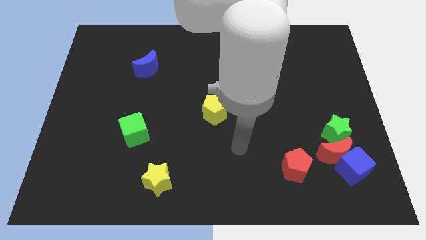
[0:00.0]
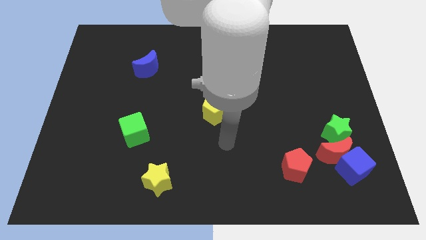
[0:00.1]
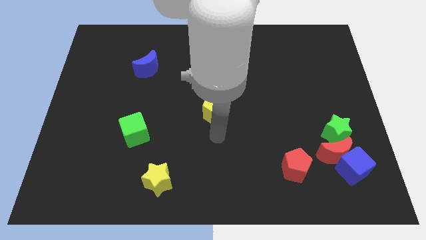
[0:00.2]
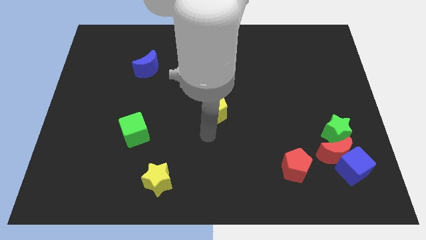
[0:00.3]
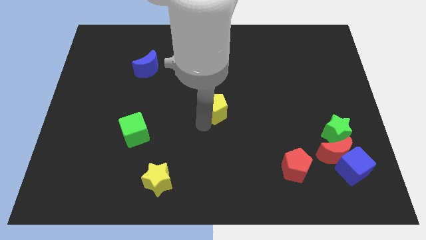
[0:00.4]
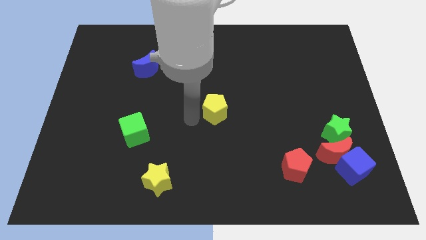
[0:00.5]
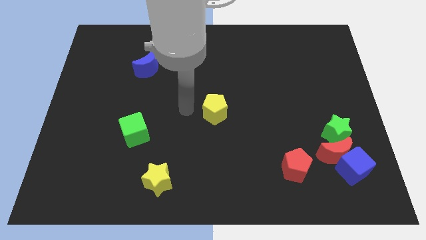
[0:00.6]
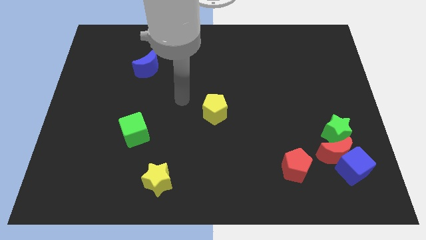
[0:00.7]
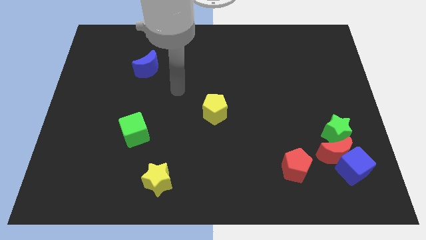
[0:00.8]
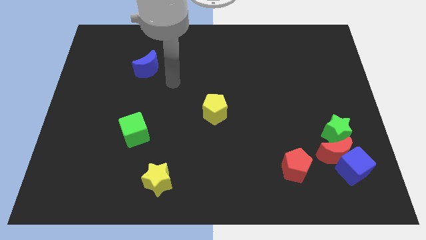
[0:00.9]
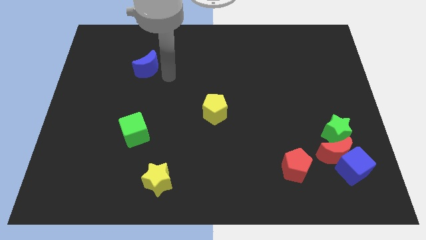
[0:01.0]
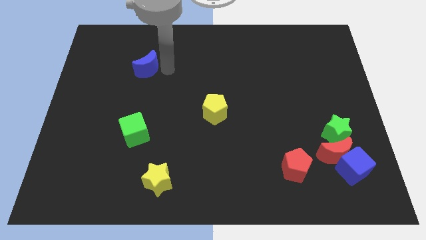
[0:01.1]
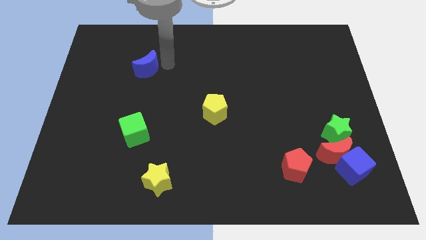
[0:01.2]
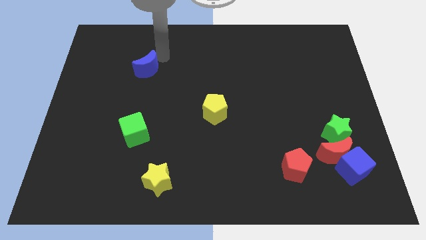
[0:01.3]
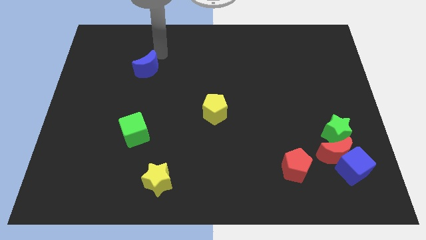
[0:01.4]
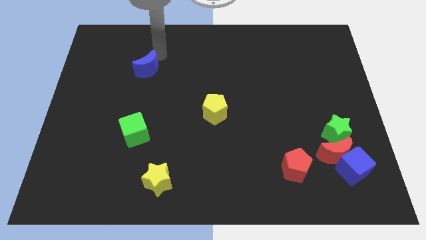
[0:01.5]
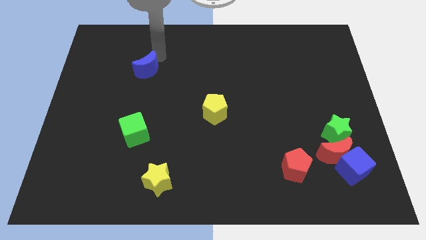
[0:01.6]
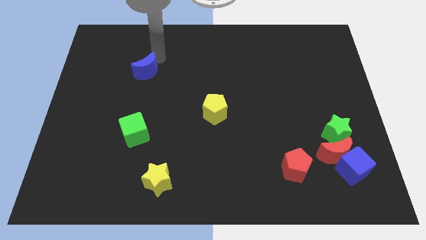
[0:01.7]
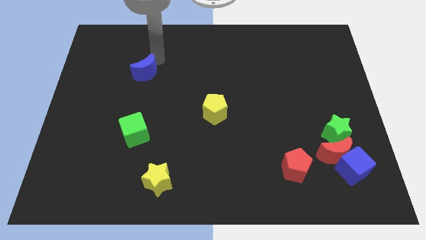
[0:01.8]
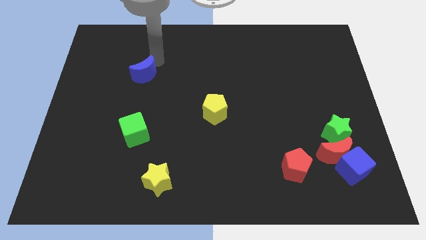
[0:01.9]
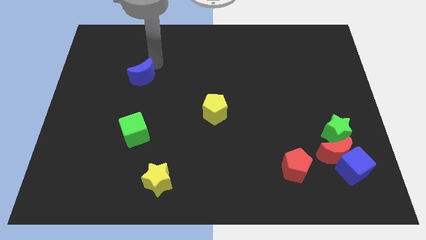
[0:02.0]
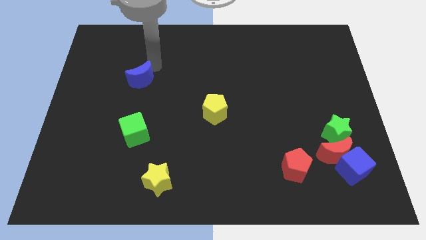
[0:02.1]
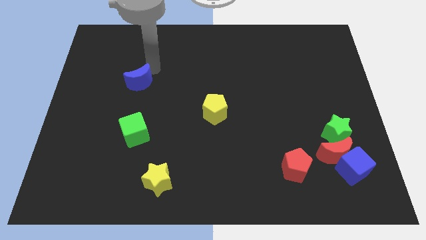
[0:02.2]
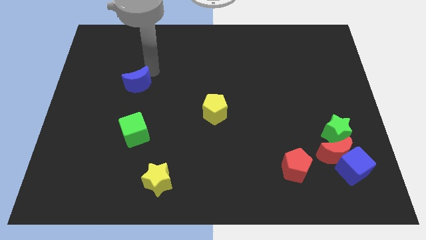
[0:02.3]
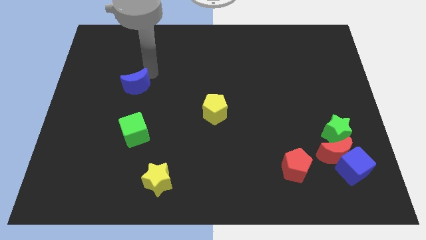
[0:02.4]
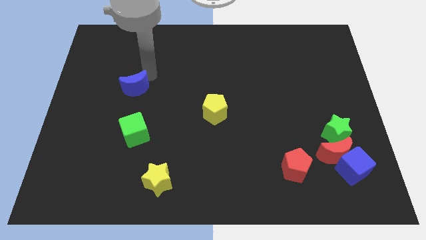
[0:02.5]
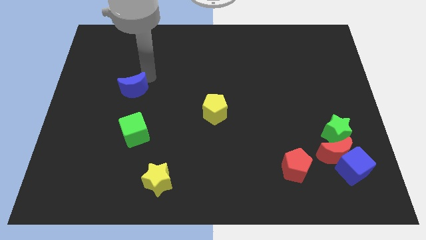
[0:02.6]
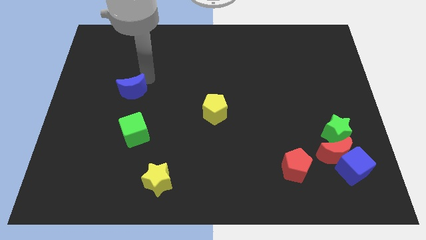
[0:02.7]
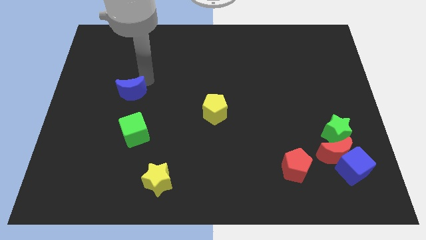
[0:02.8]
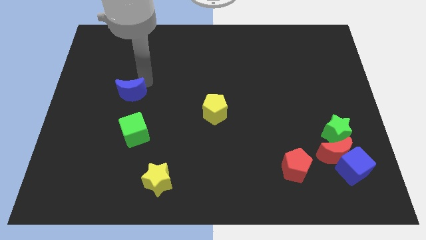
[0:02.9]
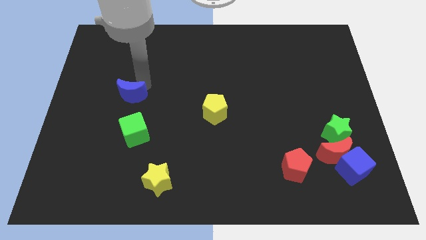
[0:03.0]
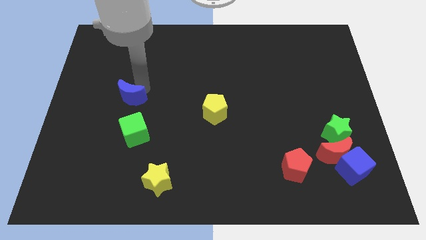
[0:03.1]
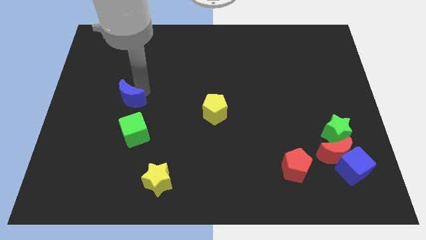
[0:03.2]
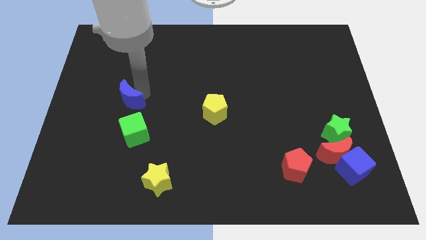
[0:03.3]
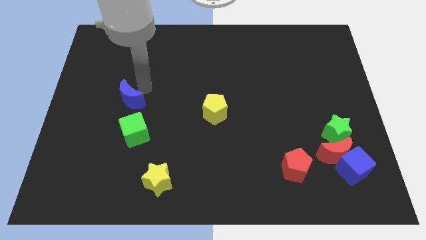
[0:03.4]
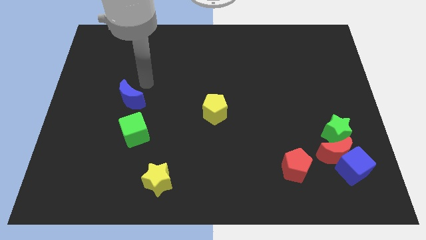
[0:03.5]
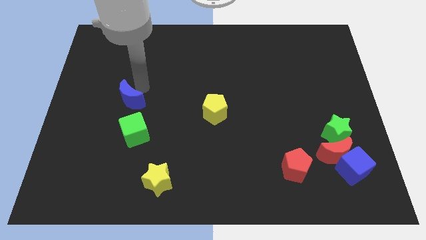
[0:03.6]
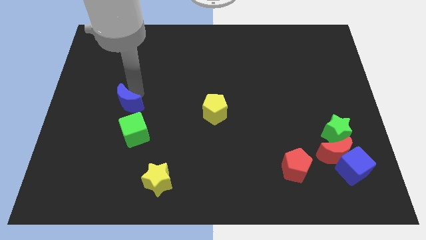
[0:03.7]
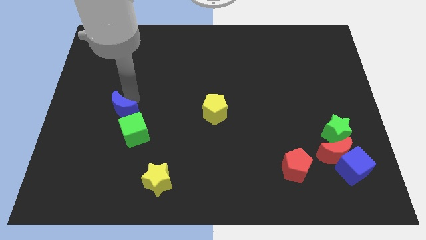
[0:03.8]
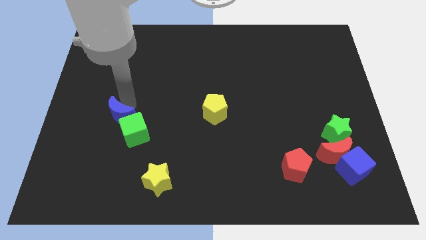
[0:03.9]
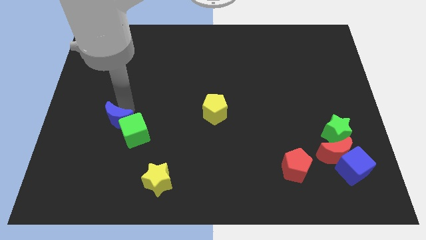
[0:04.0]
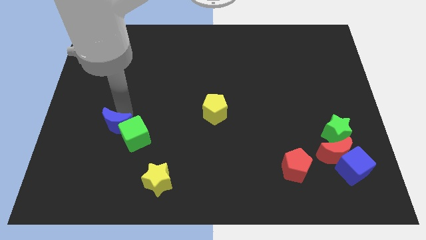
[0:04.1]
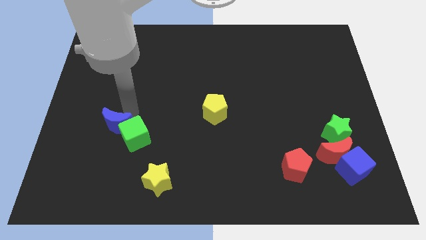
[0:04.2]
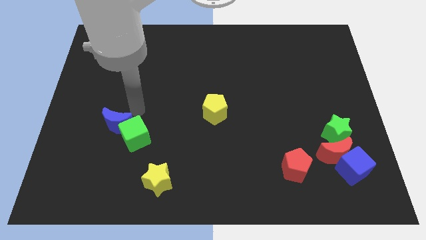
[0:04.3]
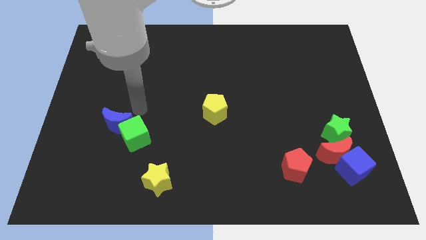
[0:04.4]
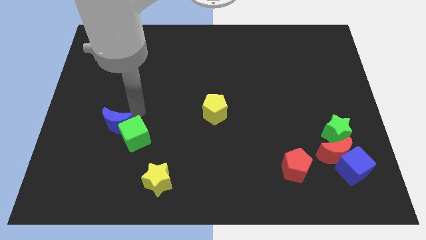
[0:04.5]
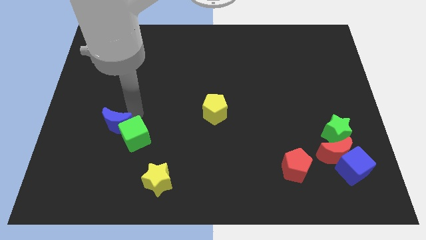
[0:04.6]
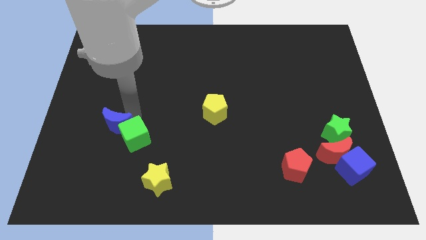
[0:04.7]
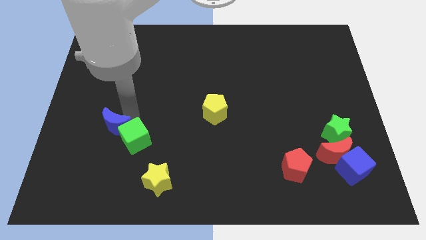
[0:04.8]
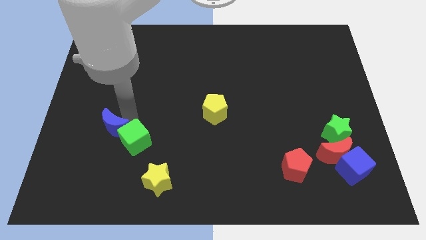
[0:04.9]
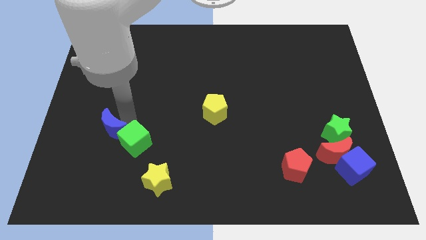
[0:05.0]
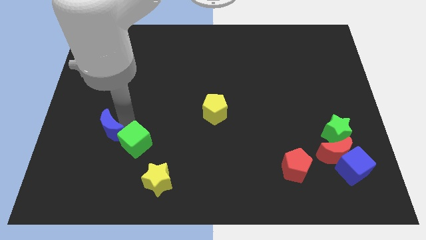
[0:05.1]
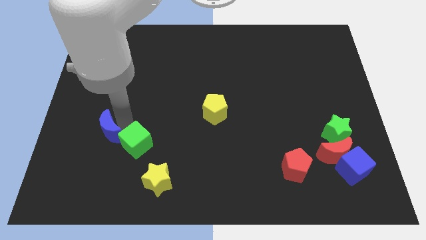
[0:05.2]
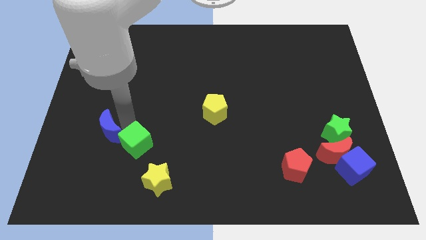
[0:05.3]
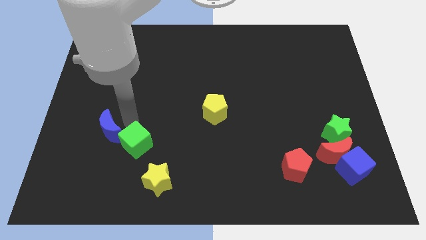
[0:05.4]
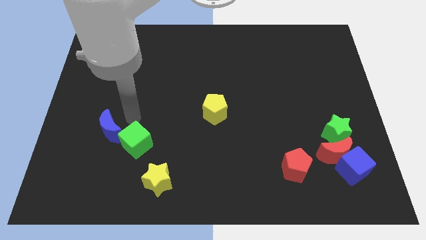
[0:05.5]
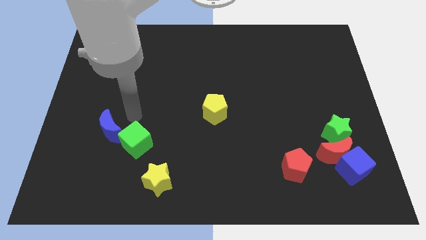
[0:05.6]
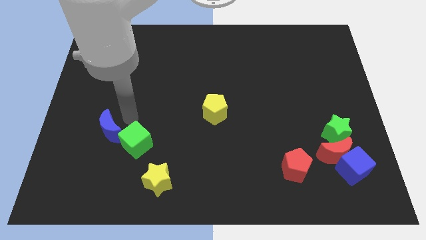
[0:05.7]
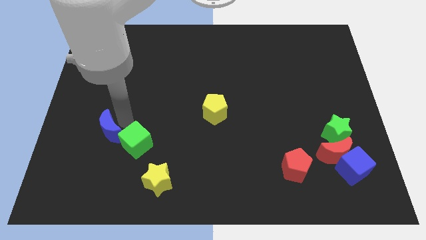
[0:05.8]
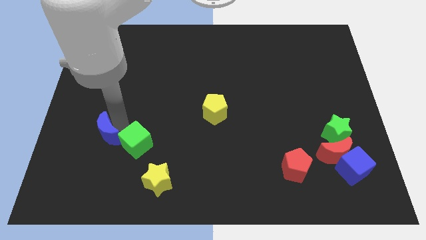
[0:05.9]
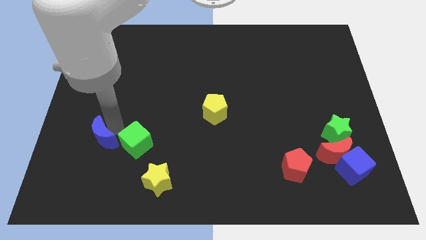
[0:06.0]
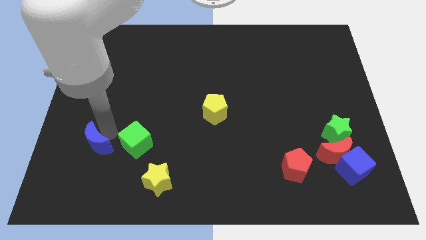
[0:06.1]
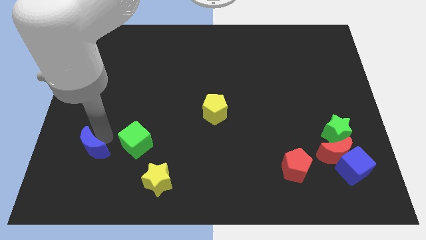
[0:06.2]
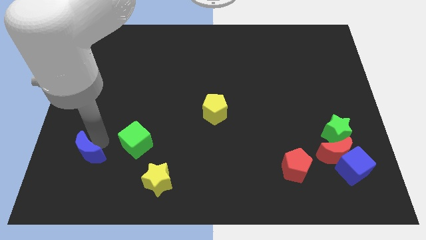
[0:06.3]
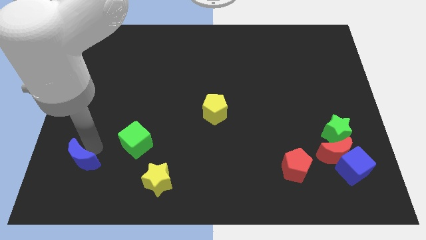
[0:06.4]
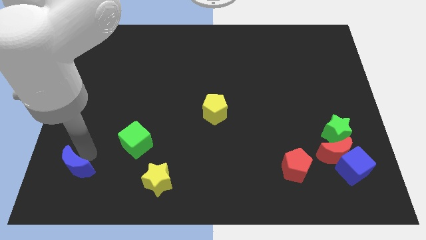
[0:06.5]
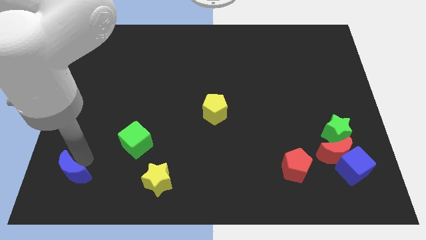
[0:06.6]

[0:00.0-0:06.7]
put the blue moon to the bottom left

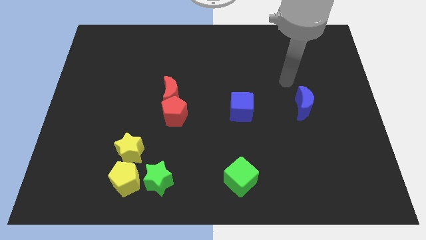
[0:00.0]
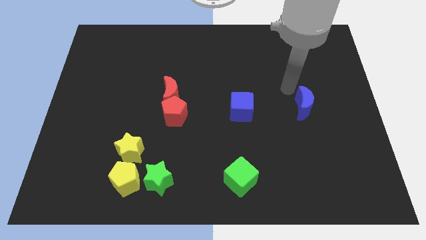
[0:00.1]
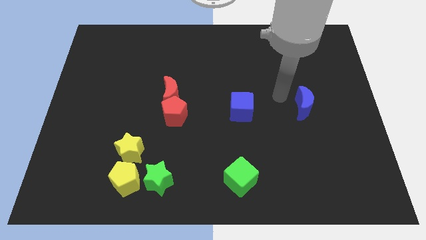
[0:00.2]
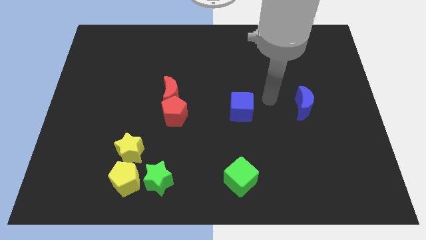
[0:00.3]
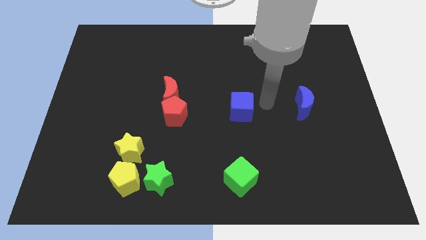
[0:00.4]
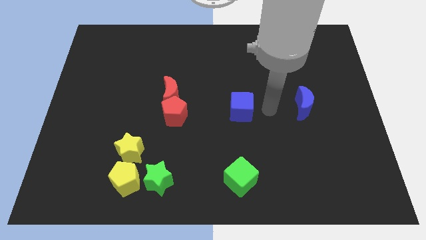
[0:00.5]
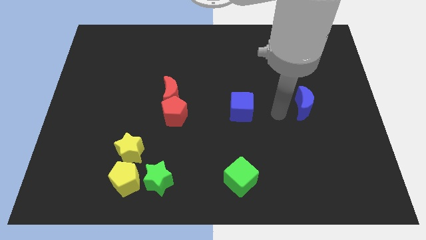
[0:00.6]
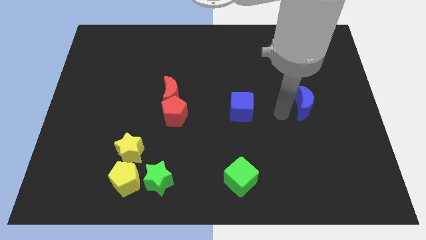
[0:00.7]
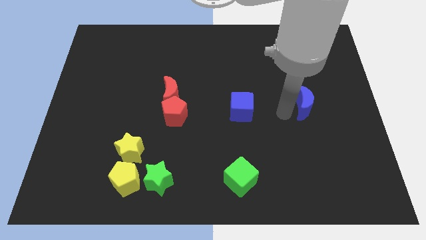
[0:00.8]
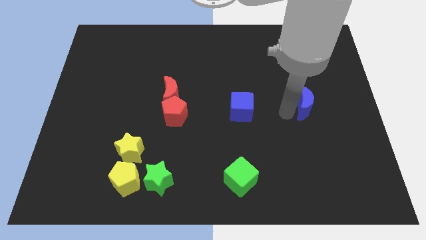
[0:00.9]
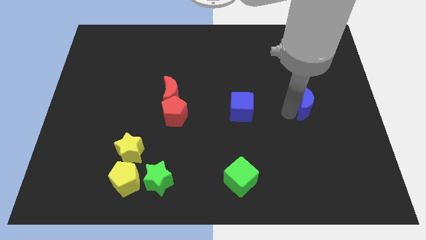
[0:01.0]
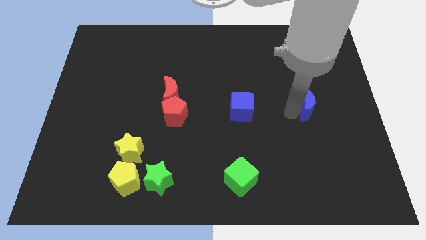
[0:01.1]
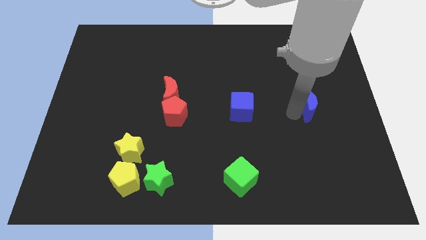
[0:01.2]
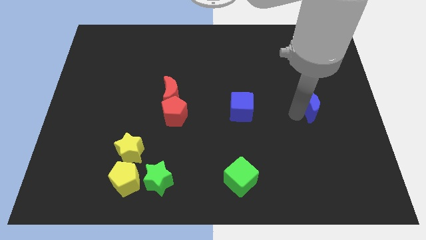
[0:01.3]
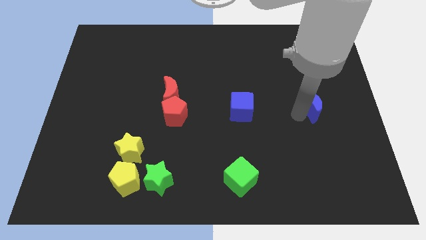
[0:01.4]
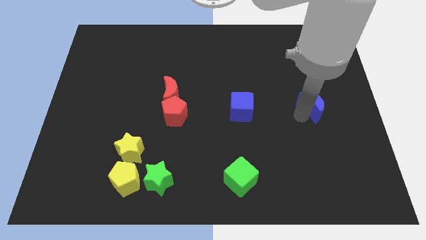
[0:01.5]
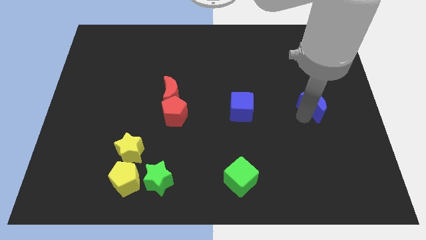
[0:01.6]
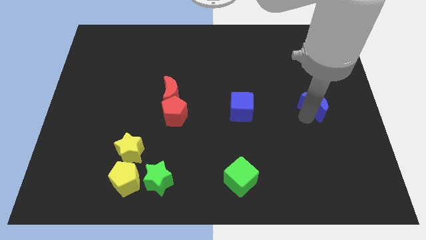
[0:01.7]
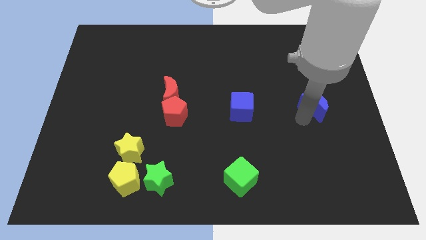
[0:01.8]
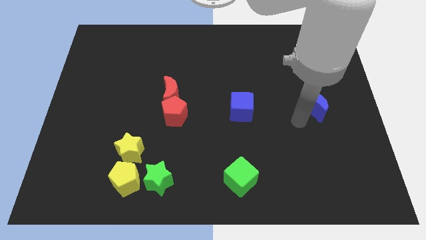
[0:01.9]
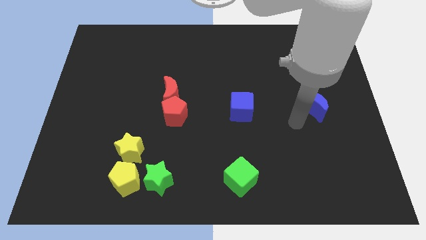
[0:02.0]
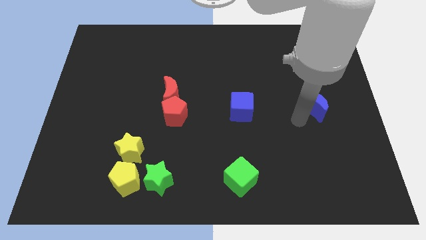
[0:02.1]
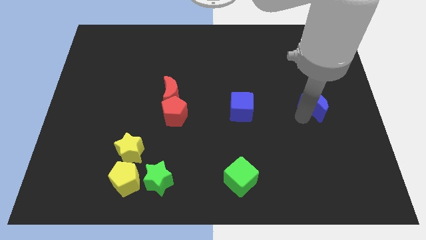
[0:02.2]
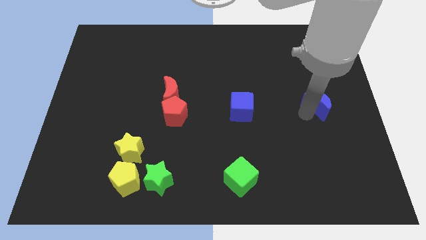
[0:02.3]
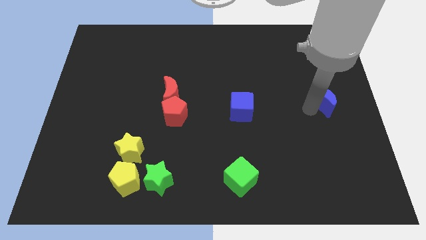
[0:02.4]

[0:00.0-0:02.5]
push the blue moon to the right side of the board
